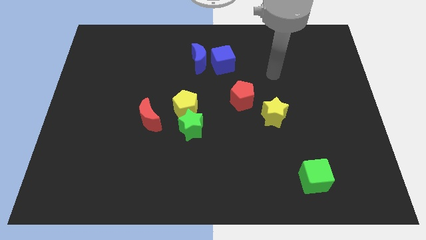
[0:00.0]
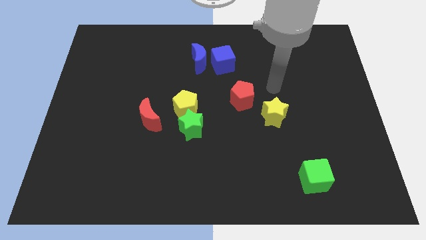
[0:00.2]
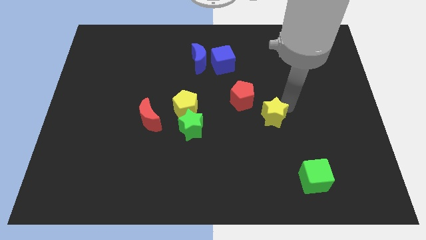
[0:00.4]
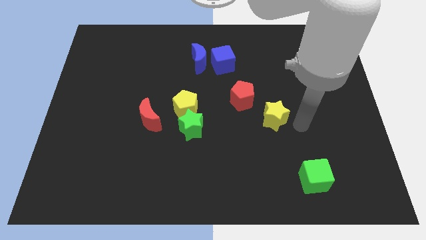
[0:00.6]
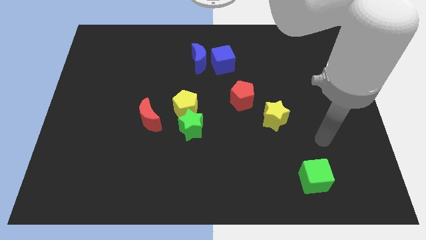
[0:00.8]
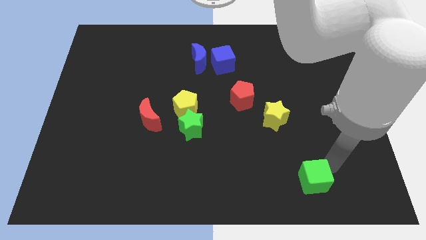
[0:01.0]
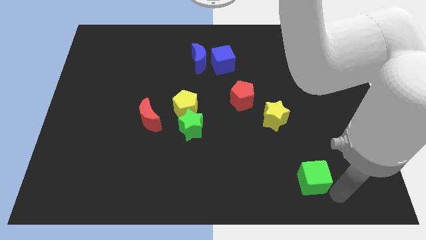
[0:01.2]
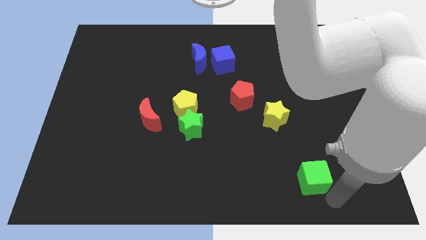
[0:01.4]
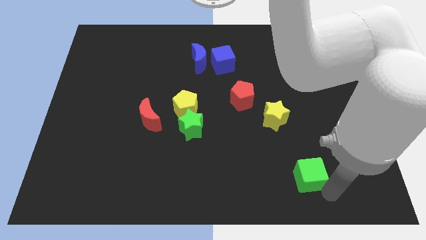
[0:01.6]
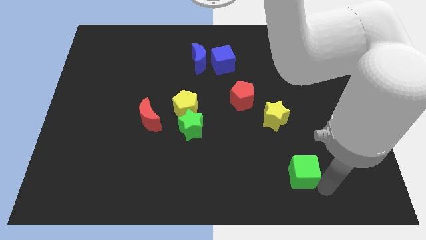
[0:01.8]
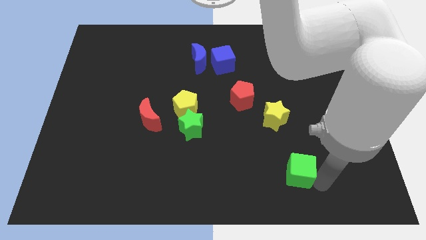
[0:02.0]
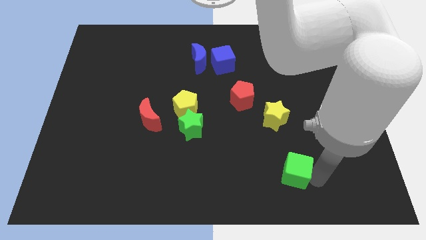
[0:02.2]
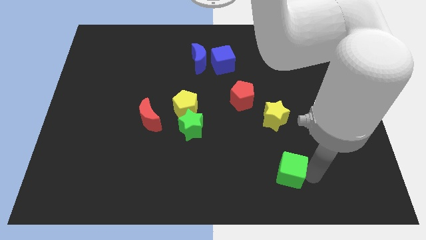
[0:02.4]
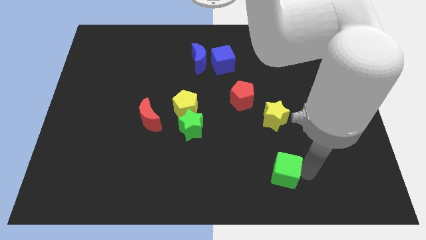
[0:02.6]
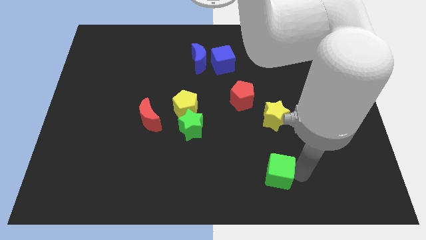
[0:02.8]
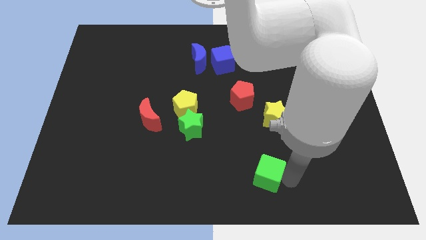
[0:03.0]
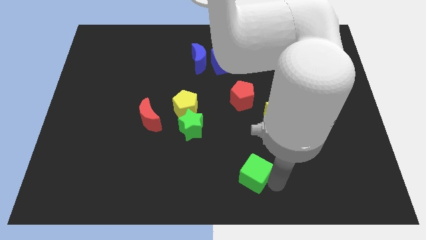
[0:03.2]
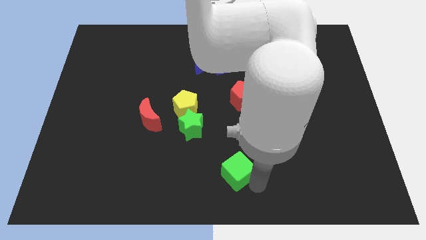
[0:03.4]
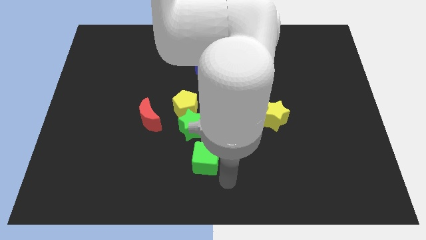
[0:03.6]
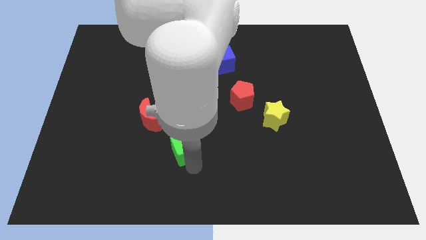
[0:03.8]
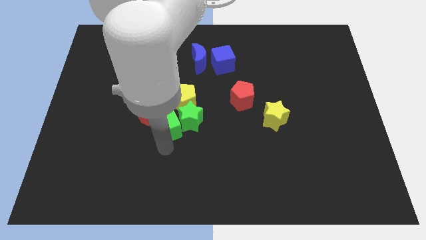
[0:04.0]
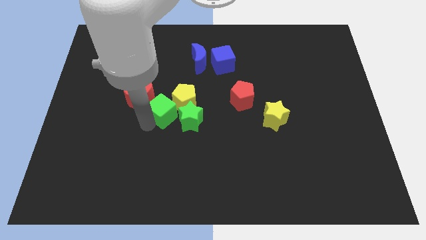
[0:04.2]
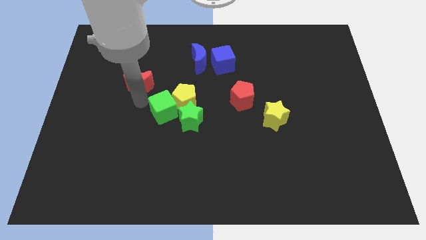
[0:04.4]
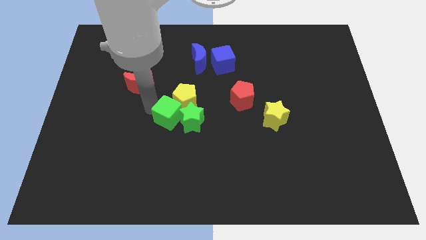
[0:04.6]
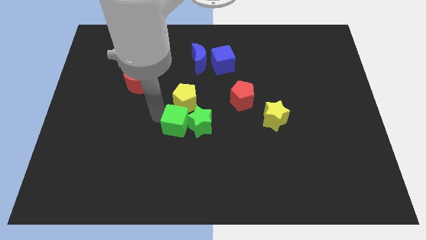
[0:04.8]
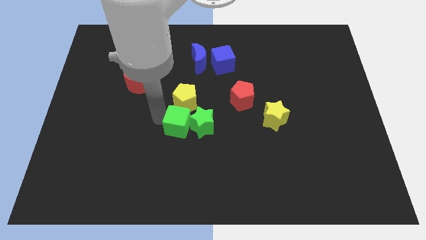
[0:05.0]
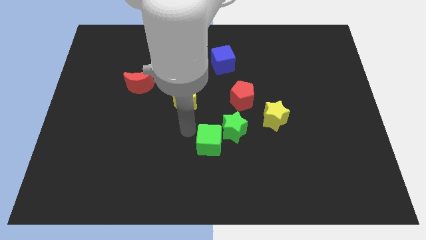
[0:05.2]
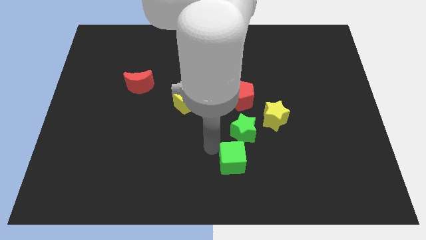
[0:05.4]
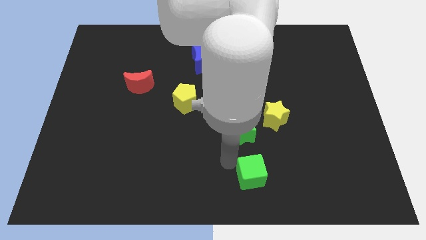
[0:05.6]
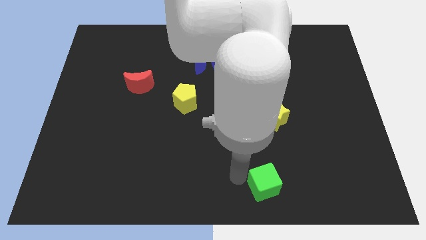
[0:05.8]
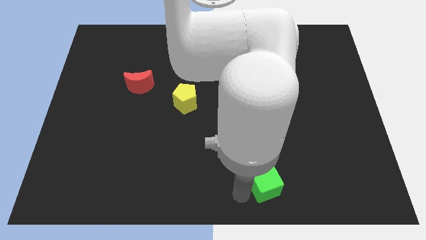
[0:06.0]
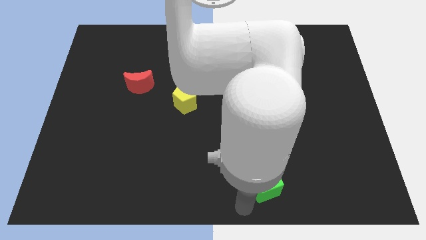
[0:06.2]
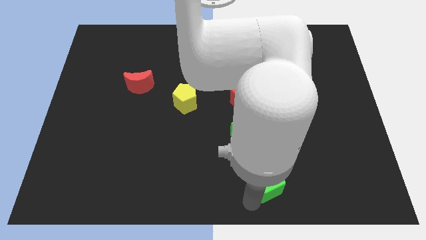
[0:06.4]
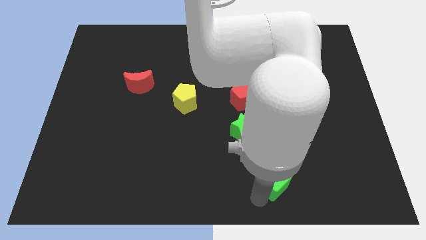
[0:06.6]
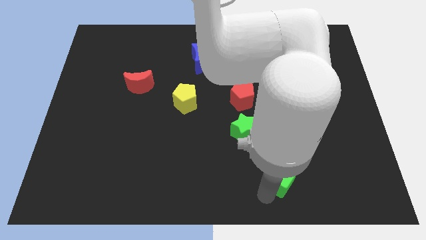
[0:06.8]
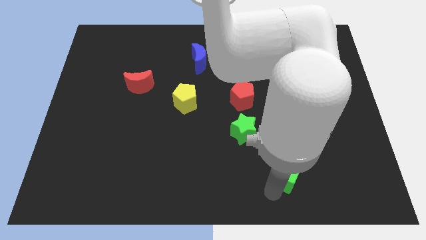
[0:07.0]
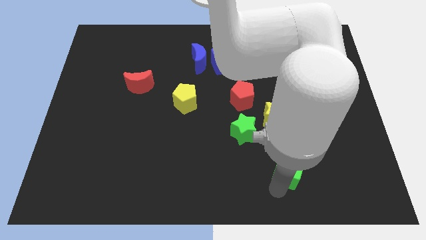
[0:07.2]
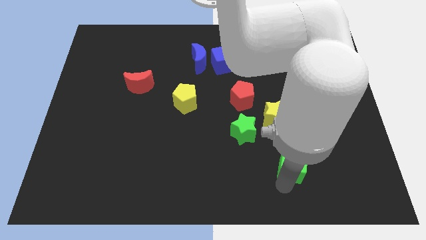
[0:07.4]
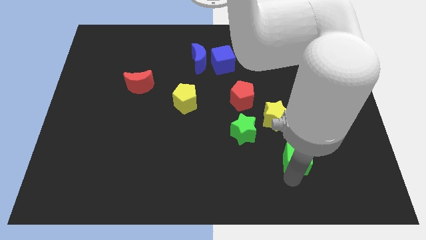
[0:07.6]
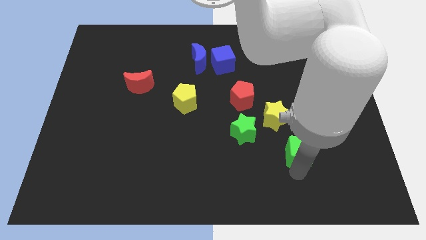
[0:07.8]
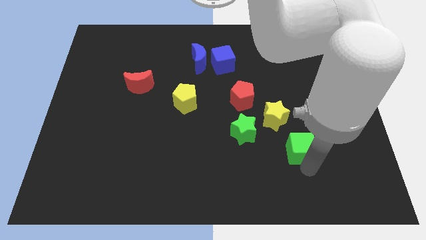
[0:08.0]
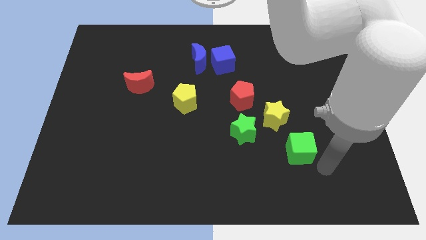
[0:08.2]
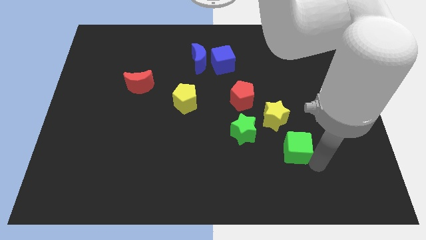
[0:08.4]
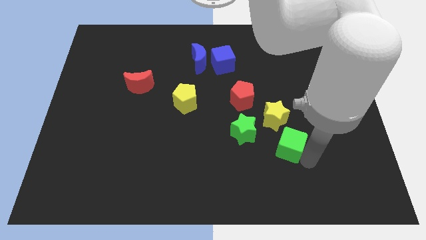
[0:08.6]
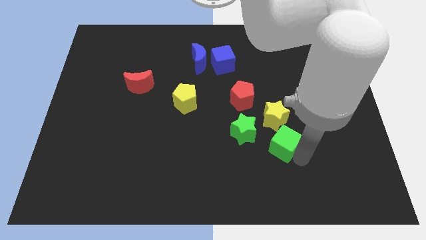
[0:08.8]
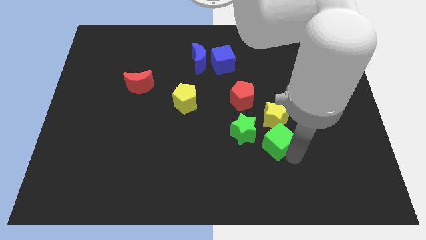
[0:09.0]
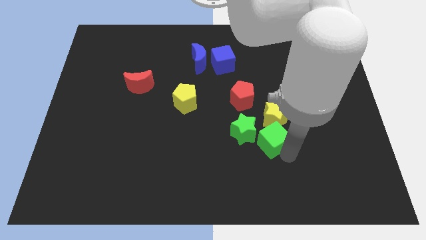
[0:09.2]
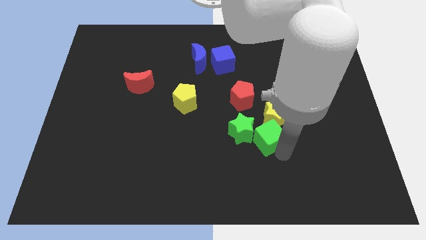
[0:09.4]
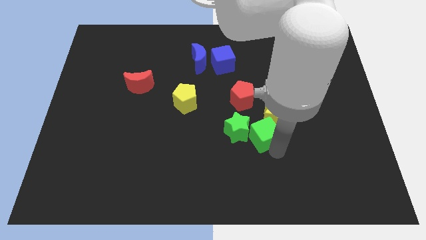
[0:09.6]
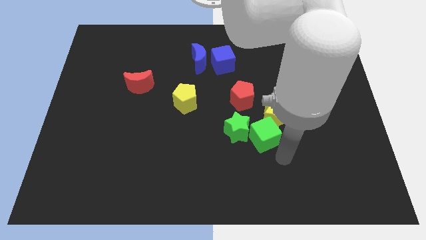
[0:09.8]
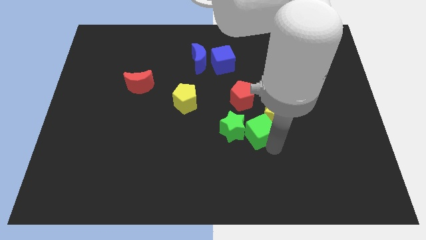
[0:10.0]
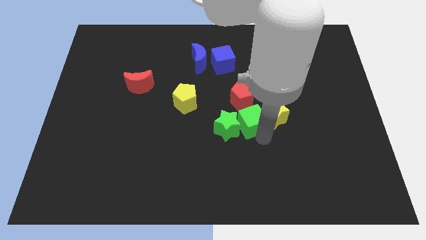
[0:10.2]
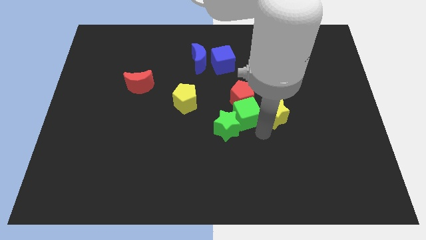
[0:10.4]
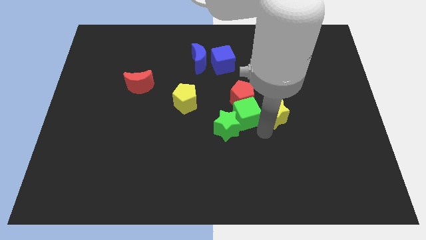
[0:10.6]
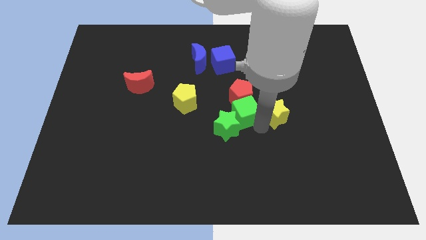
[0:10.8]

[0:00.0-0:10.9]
put the green cube just right of the yellow pentagon

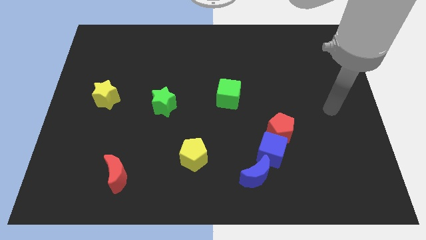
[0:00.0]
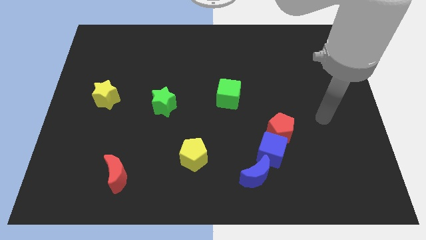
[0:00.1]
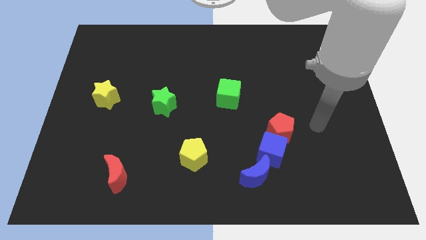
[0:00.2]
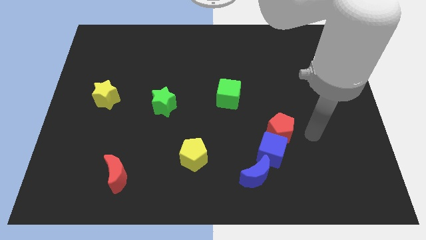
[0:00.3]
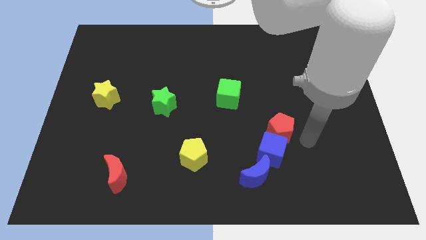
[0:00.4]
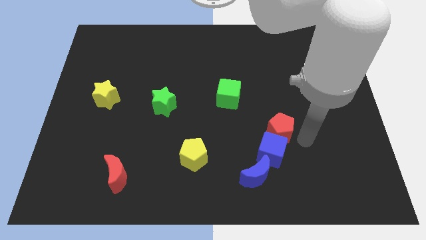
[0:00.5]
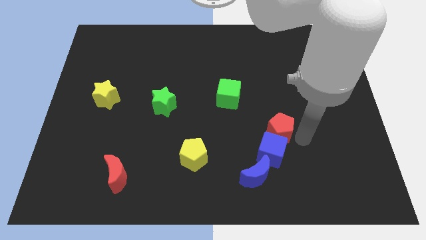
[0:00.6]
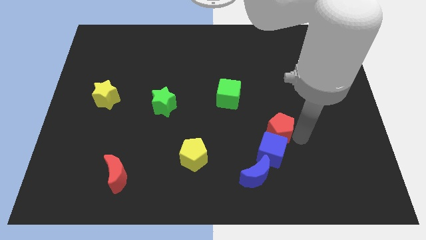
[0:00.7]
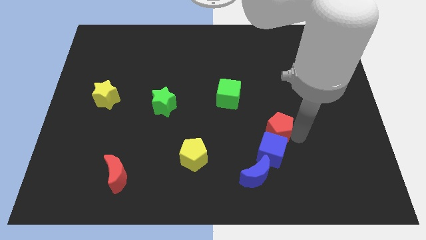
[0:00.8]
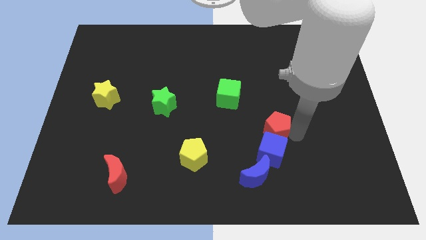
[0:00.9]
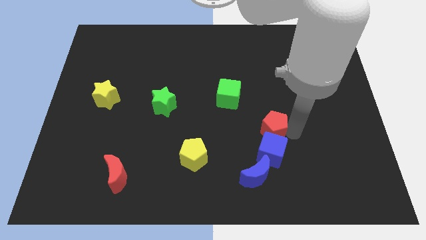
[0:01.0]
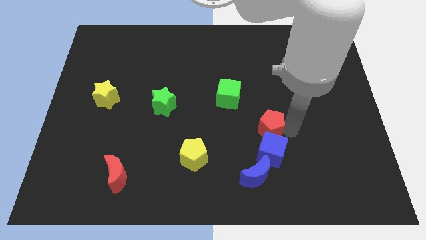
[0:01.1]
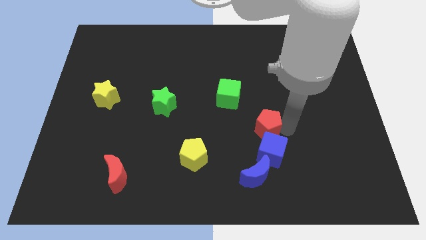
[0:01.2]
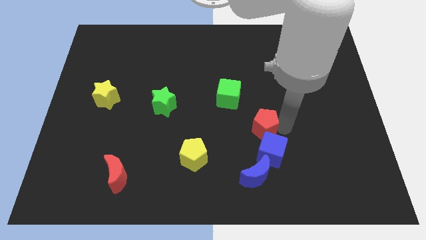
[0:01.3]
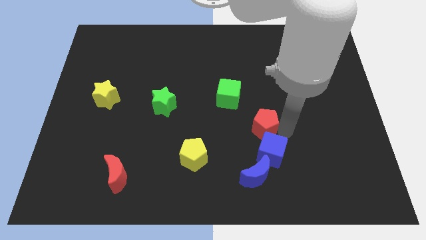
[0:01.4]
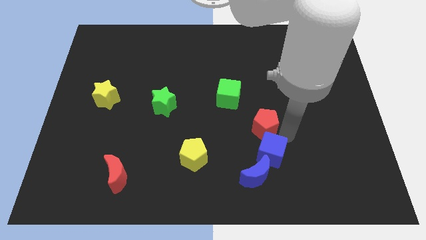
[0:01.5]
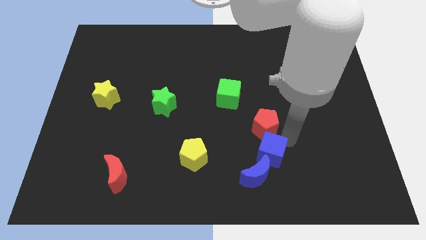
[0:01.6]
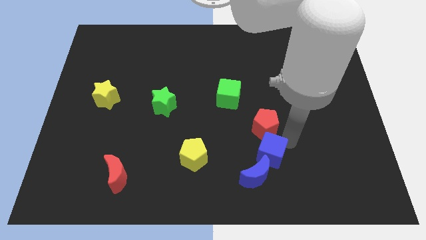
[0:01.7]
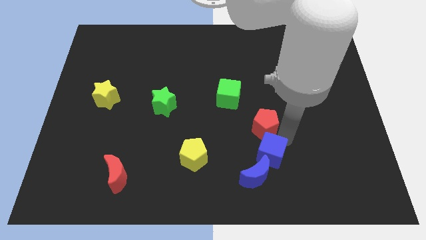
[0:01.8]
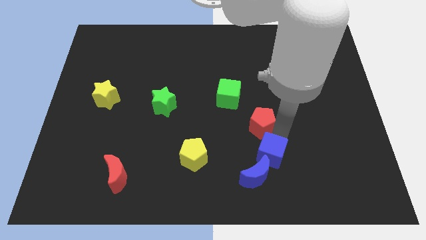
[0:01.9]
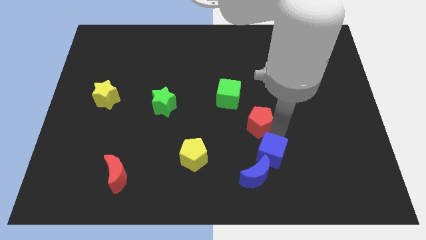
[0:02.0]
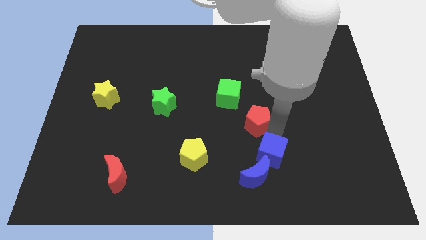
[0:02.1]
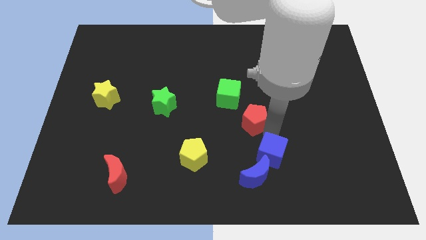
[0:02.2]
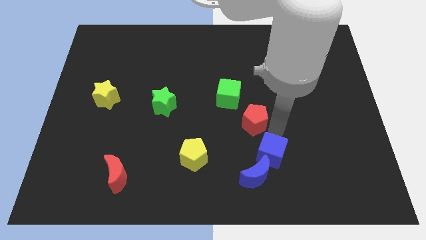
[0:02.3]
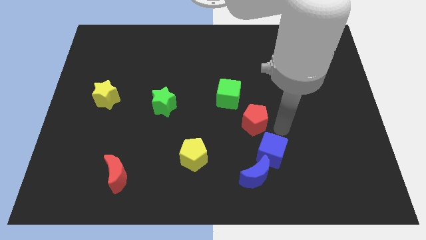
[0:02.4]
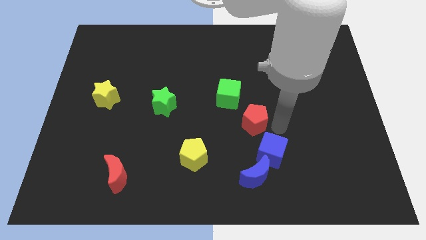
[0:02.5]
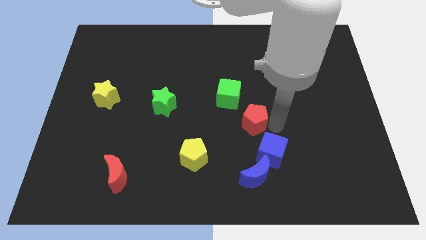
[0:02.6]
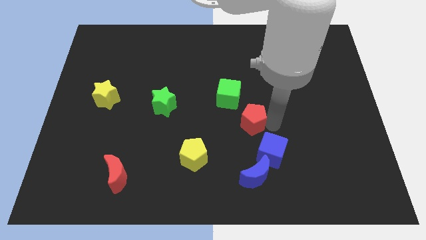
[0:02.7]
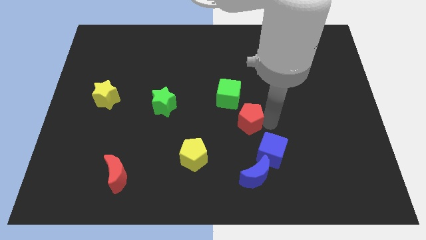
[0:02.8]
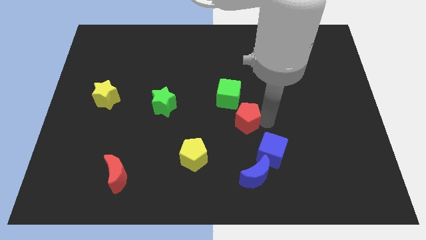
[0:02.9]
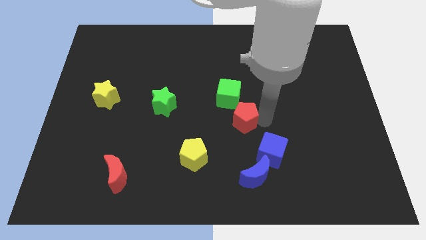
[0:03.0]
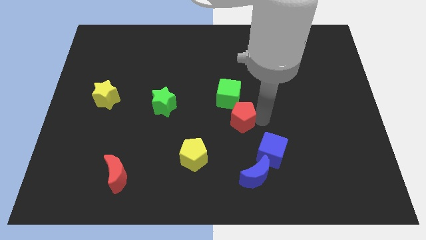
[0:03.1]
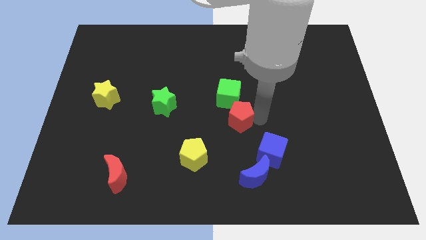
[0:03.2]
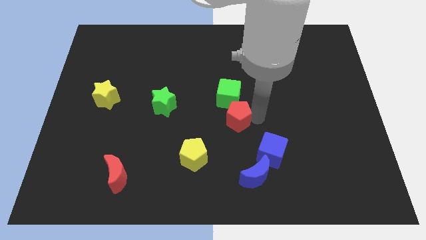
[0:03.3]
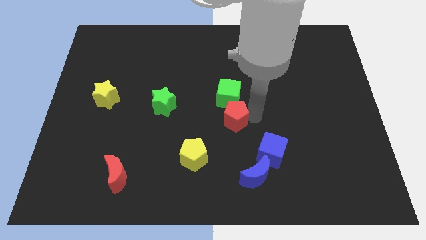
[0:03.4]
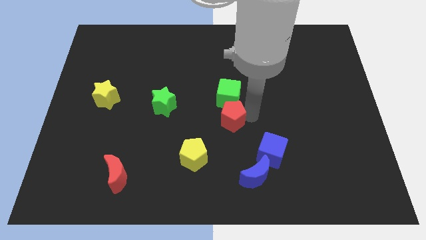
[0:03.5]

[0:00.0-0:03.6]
move the red pentagon to the bottom left of the green cube
